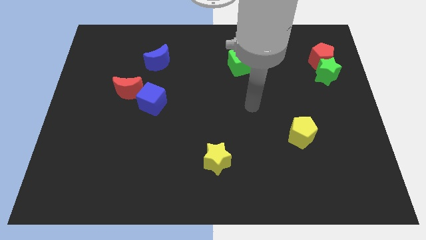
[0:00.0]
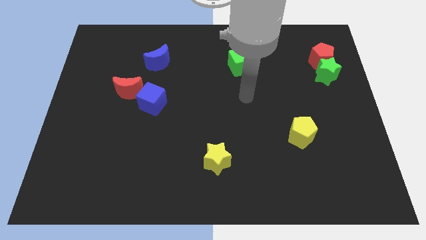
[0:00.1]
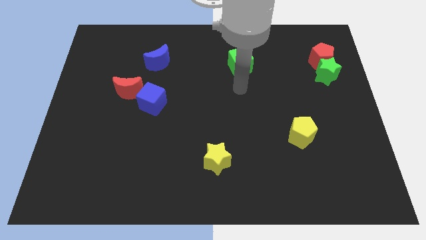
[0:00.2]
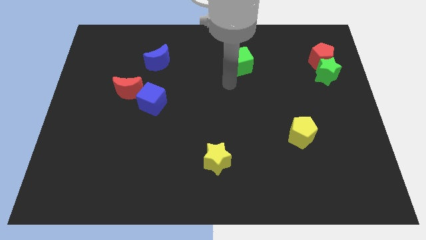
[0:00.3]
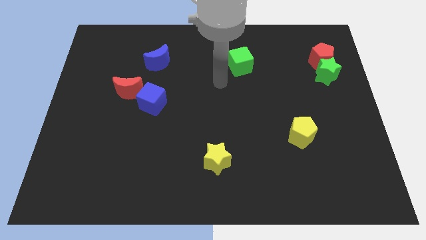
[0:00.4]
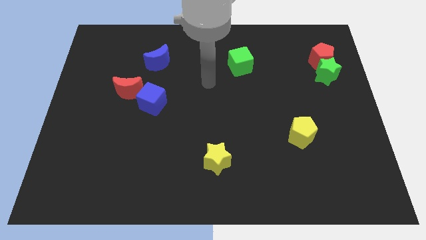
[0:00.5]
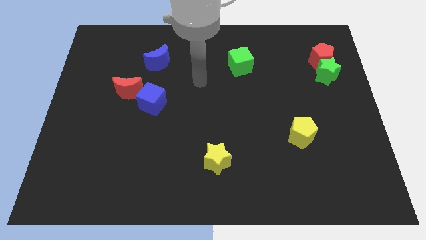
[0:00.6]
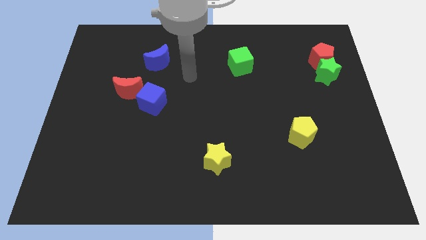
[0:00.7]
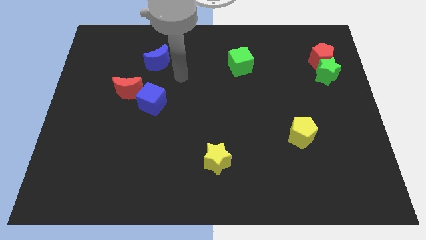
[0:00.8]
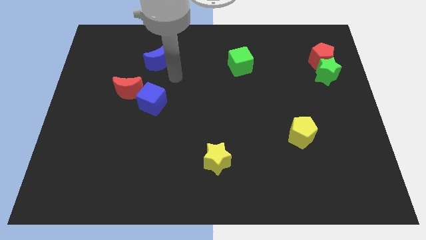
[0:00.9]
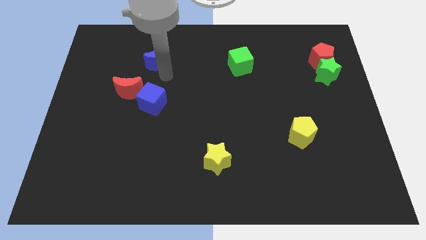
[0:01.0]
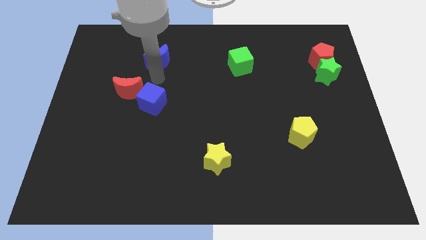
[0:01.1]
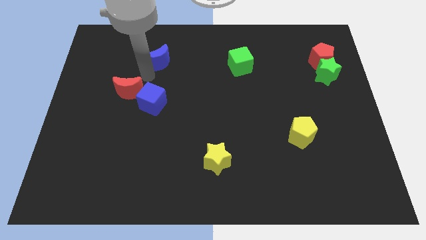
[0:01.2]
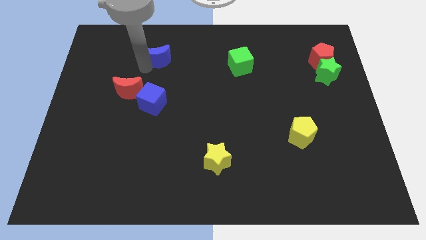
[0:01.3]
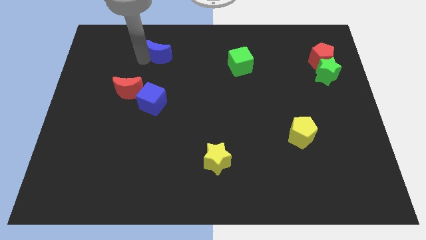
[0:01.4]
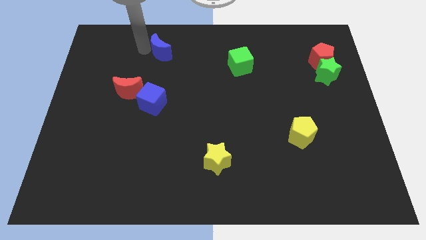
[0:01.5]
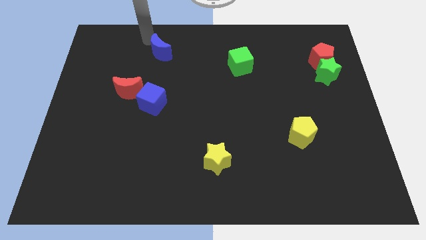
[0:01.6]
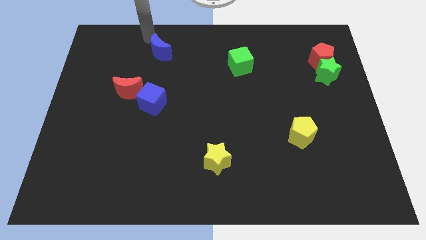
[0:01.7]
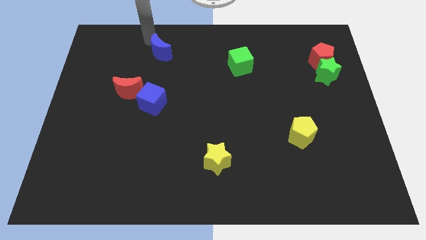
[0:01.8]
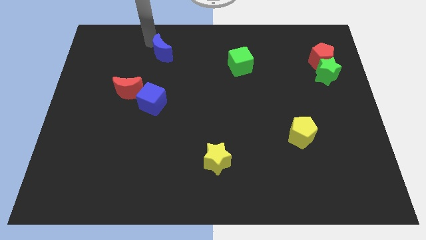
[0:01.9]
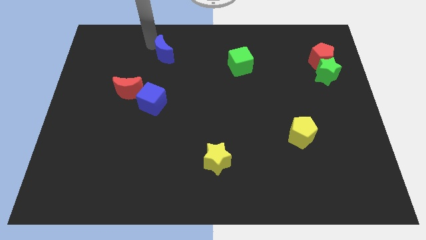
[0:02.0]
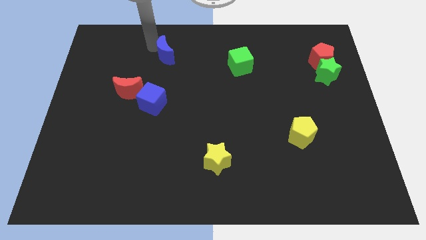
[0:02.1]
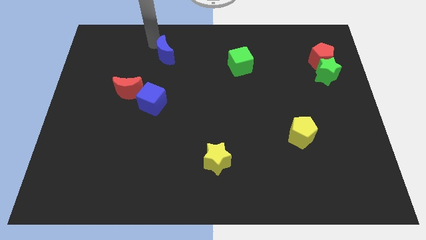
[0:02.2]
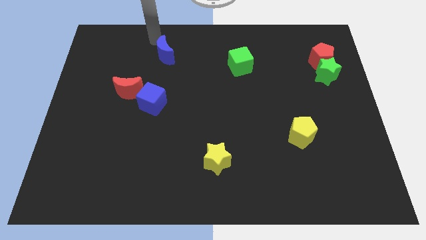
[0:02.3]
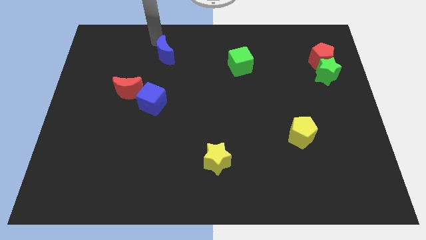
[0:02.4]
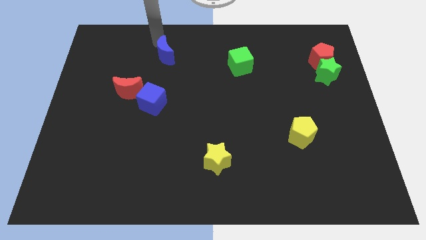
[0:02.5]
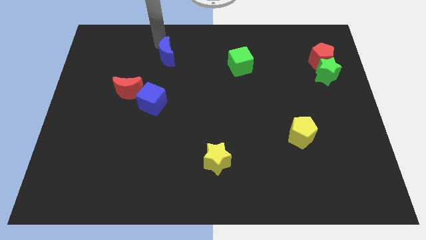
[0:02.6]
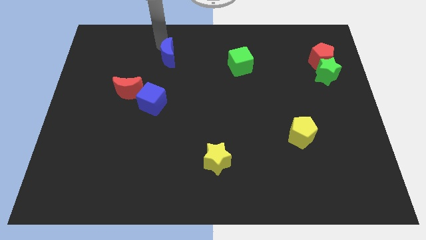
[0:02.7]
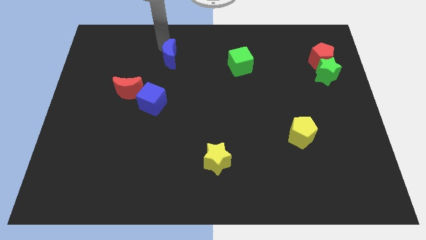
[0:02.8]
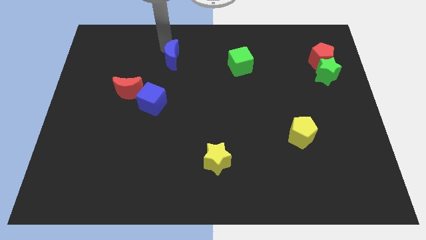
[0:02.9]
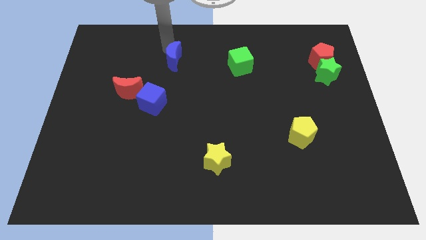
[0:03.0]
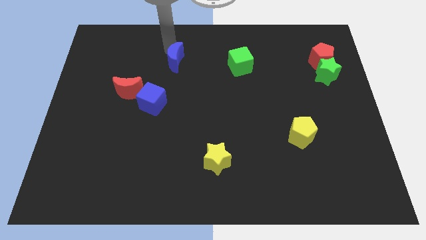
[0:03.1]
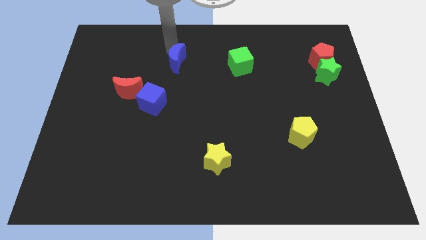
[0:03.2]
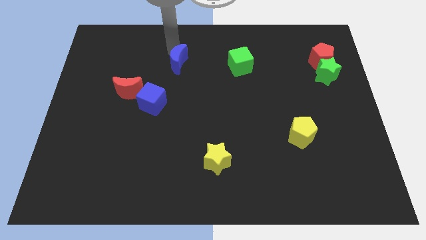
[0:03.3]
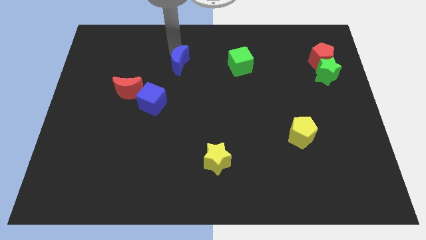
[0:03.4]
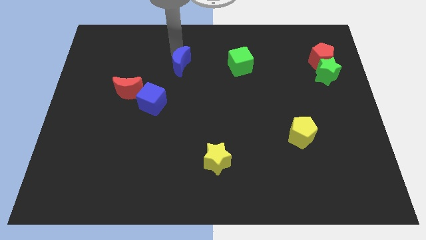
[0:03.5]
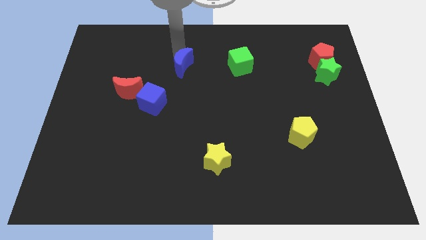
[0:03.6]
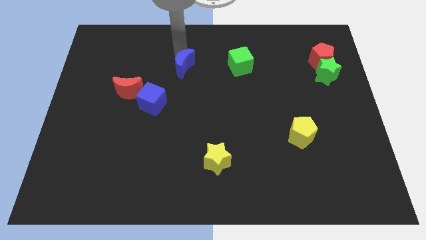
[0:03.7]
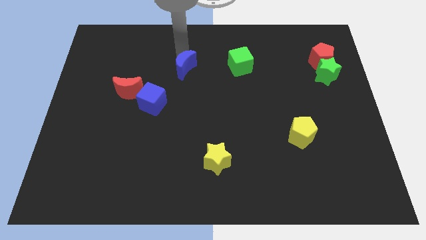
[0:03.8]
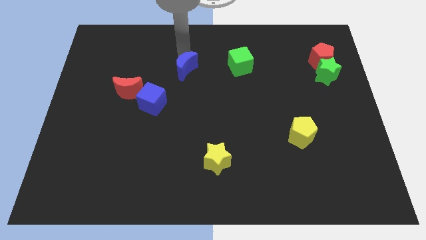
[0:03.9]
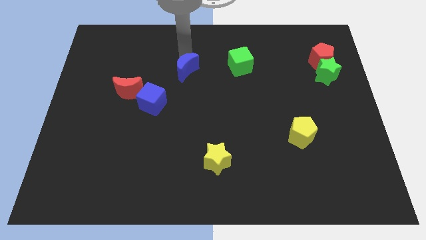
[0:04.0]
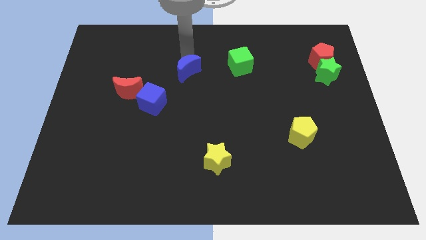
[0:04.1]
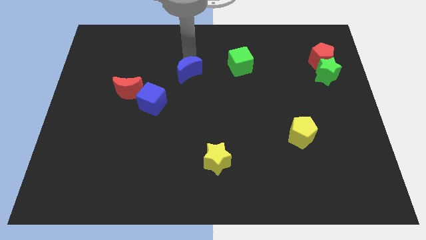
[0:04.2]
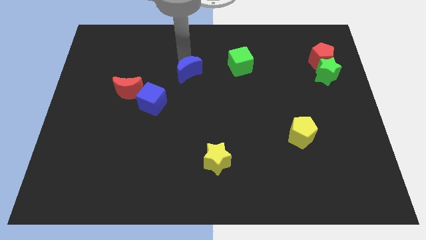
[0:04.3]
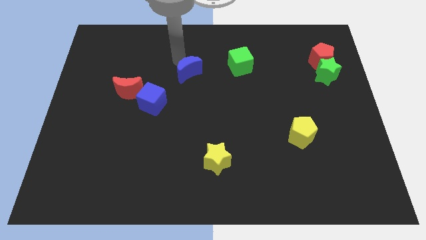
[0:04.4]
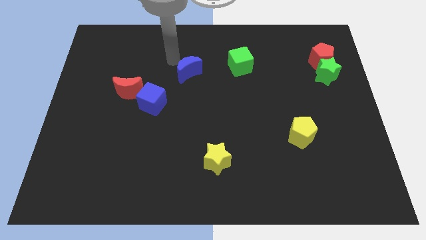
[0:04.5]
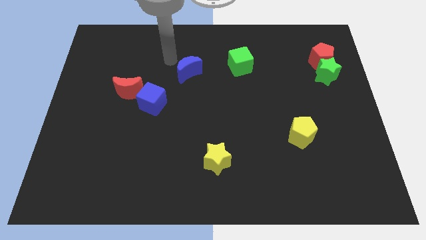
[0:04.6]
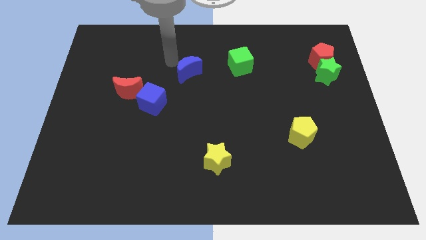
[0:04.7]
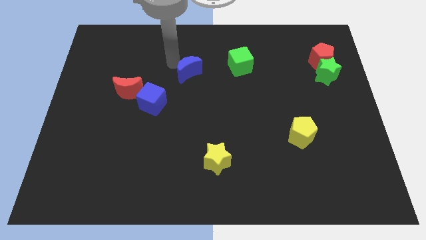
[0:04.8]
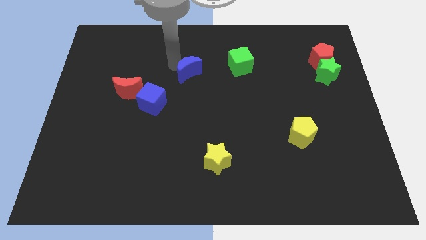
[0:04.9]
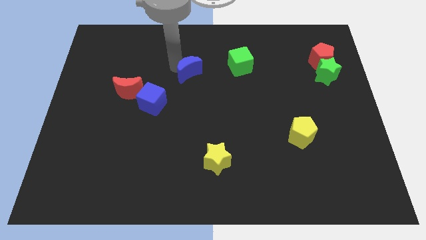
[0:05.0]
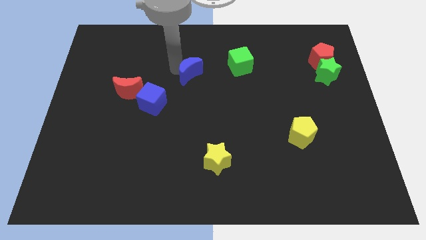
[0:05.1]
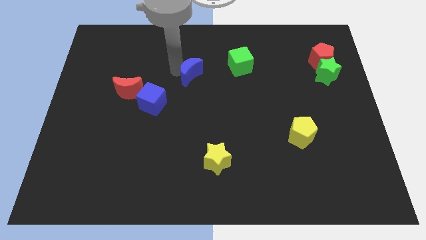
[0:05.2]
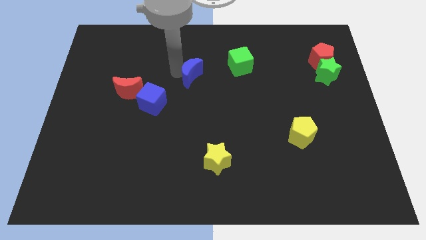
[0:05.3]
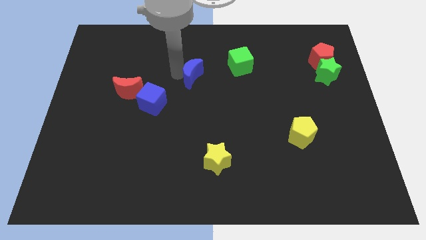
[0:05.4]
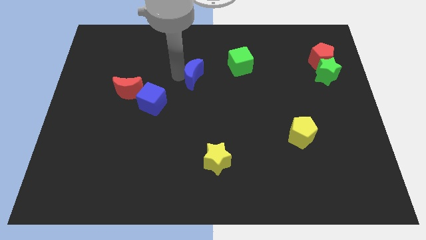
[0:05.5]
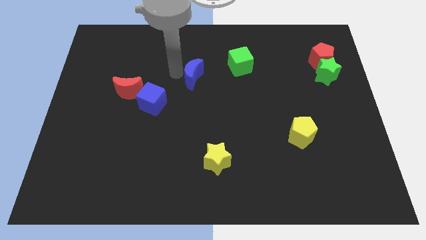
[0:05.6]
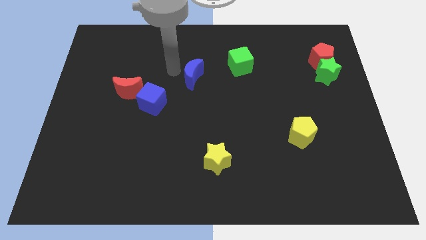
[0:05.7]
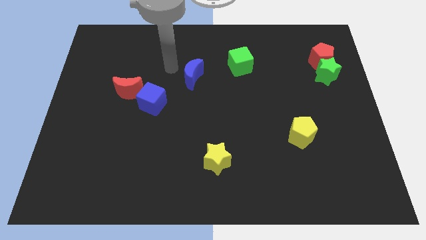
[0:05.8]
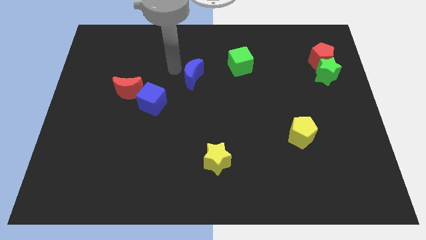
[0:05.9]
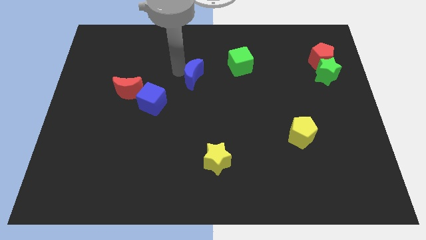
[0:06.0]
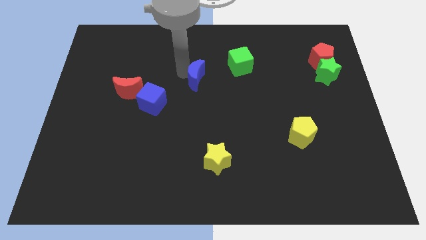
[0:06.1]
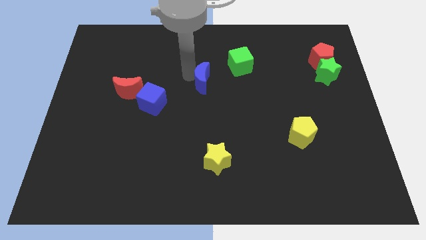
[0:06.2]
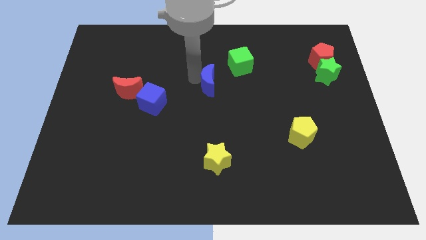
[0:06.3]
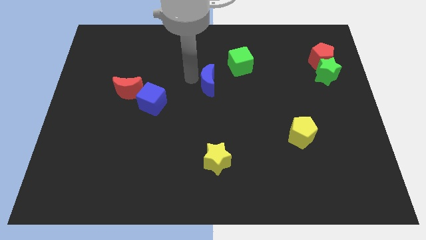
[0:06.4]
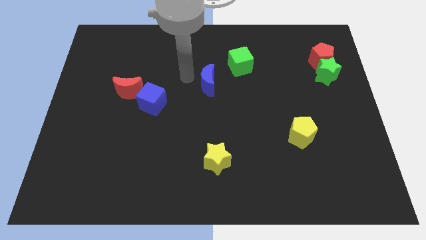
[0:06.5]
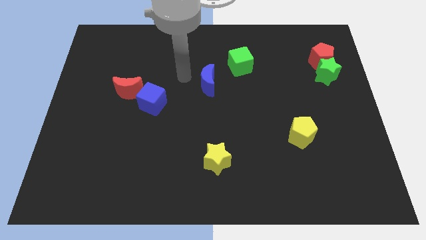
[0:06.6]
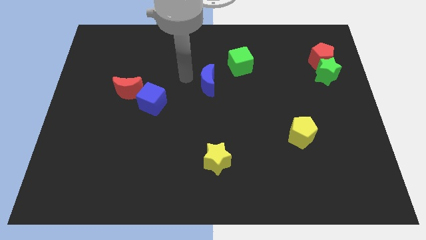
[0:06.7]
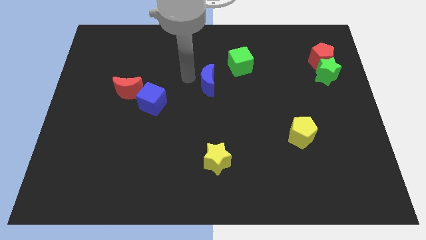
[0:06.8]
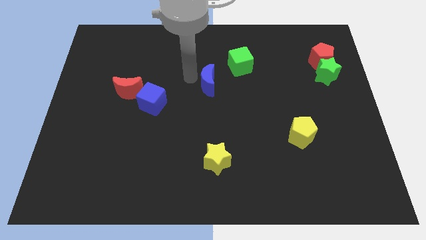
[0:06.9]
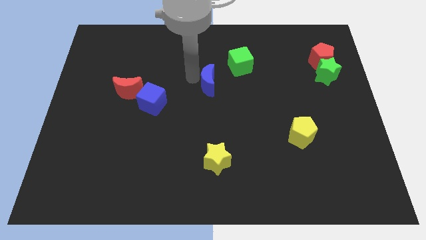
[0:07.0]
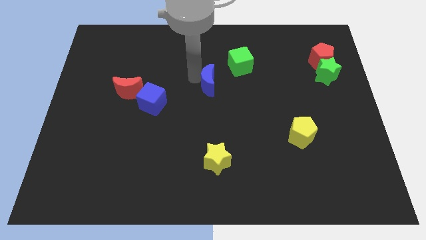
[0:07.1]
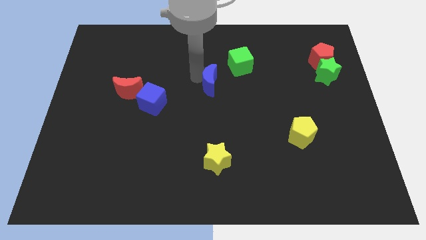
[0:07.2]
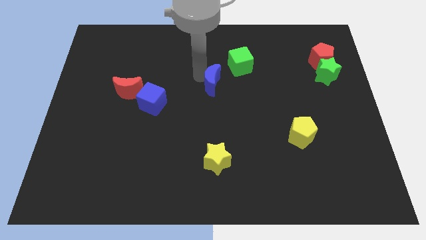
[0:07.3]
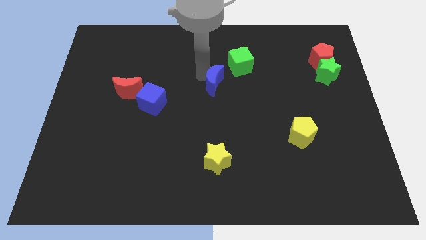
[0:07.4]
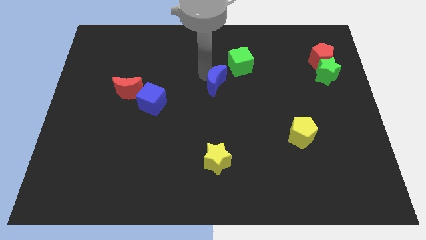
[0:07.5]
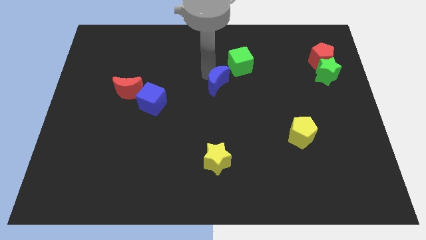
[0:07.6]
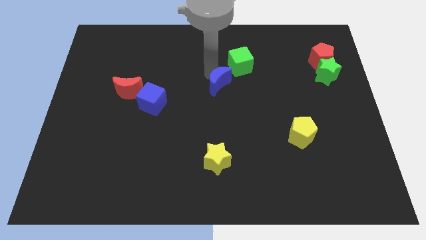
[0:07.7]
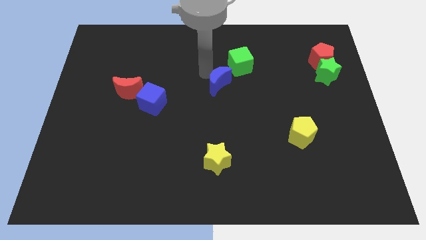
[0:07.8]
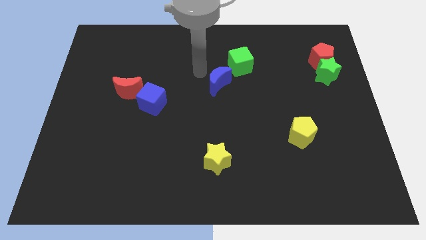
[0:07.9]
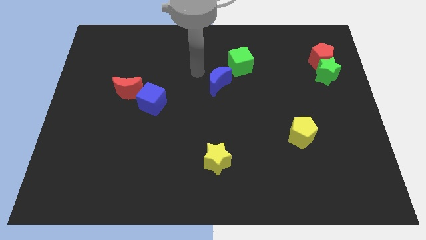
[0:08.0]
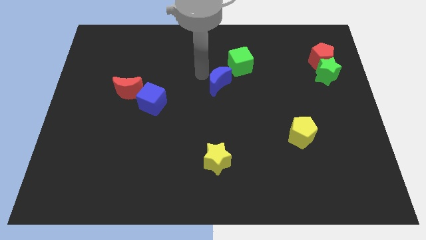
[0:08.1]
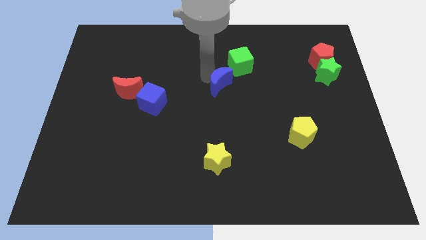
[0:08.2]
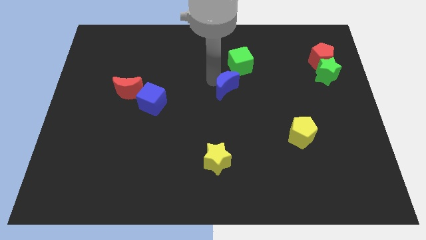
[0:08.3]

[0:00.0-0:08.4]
slide the blue moon to the bottom of the green cube
